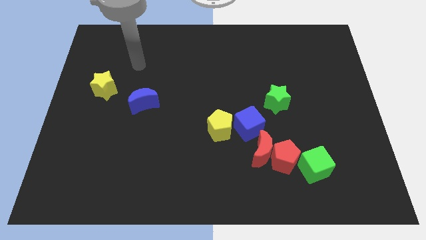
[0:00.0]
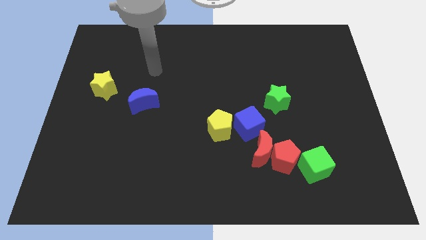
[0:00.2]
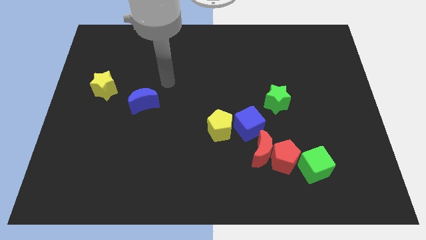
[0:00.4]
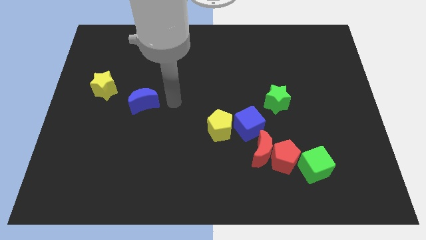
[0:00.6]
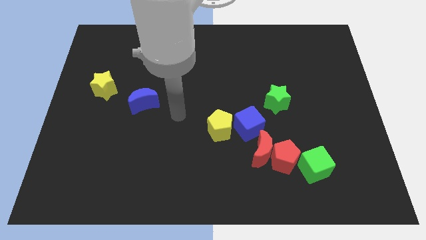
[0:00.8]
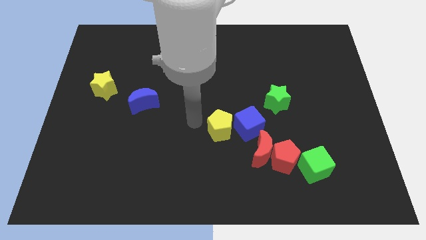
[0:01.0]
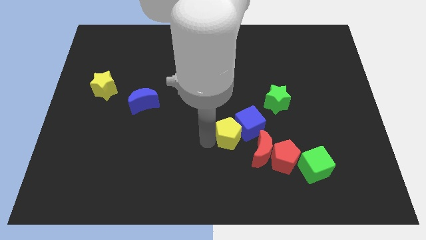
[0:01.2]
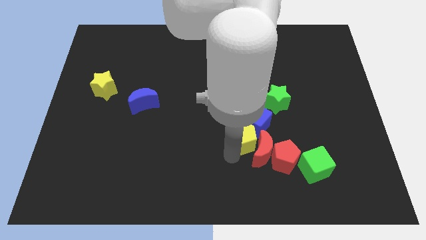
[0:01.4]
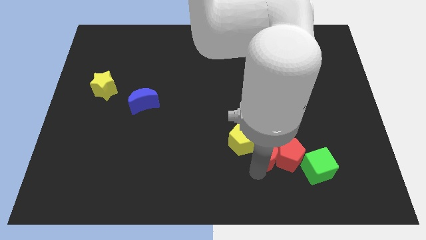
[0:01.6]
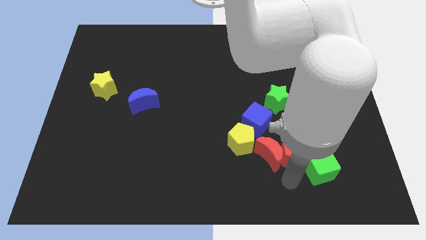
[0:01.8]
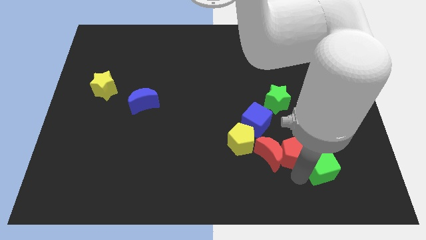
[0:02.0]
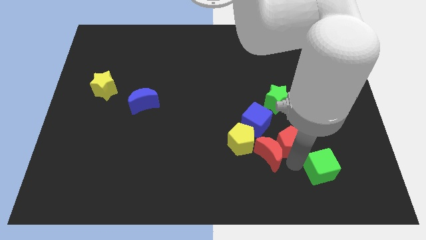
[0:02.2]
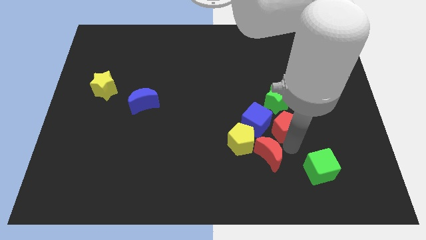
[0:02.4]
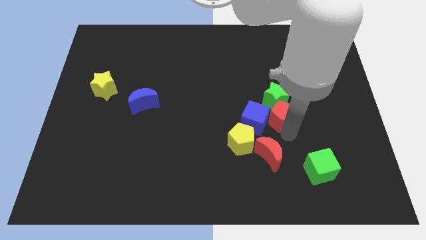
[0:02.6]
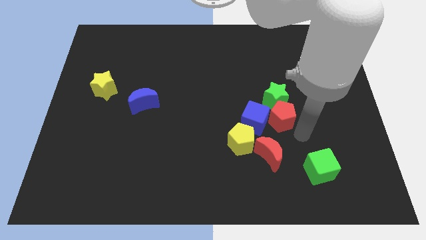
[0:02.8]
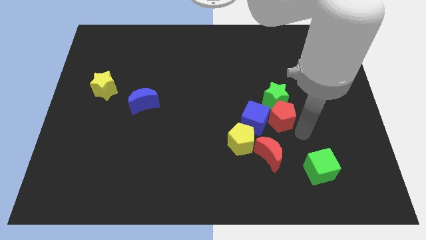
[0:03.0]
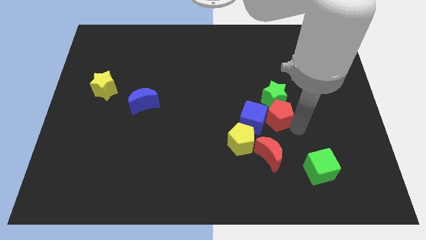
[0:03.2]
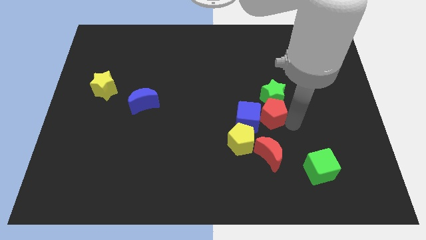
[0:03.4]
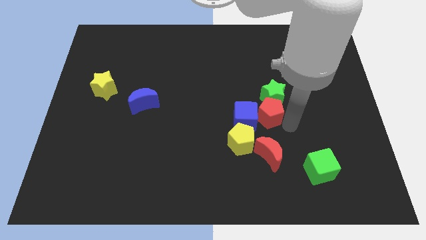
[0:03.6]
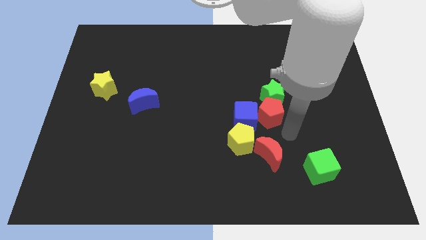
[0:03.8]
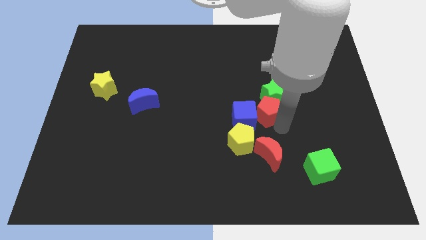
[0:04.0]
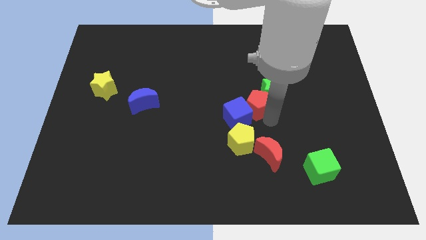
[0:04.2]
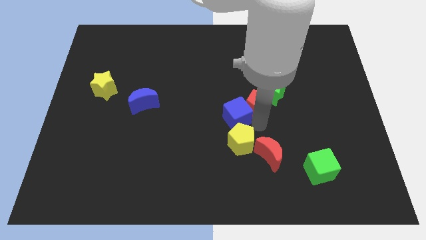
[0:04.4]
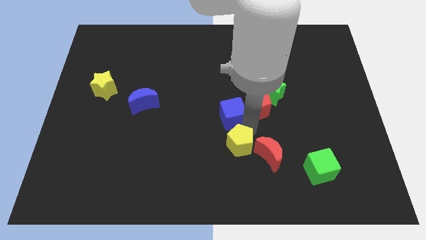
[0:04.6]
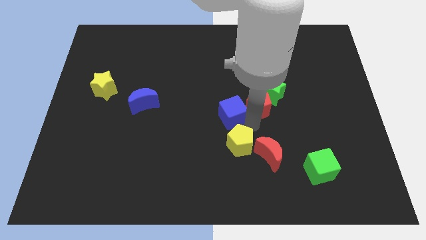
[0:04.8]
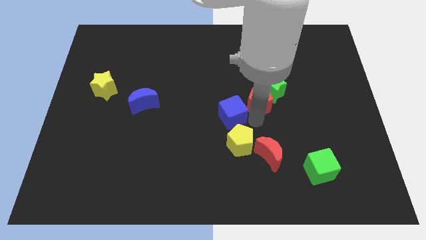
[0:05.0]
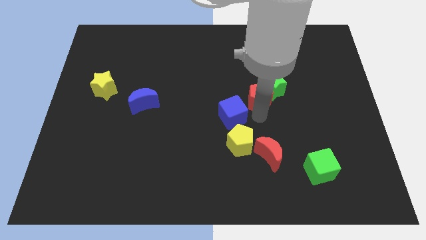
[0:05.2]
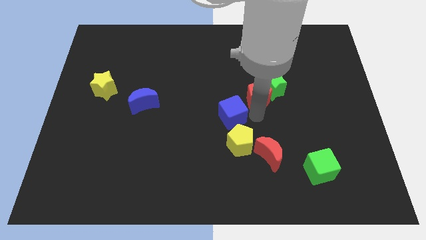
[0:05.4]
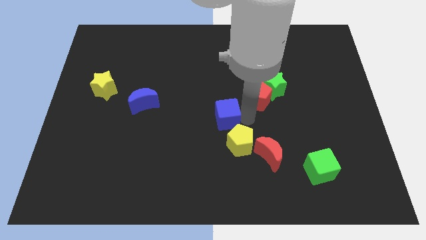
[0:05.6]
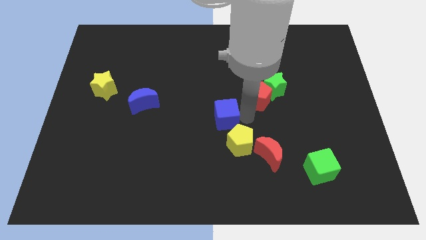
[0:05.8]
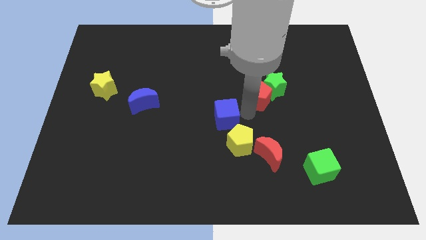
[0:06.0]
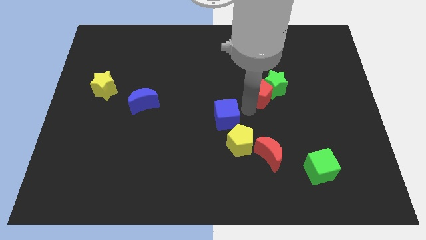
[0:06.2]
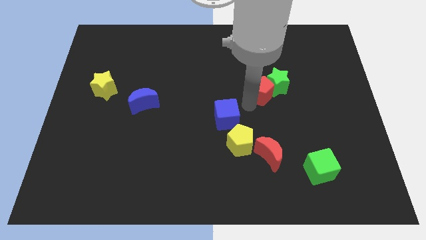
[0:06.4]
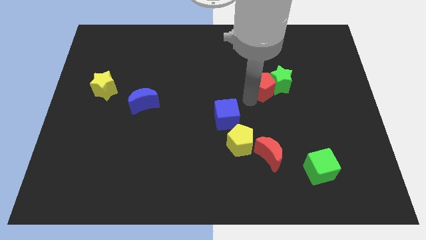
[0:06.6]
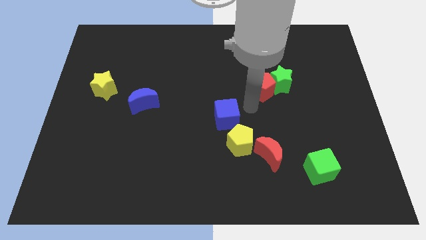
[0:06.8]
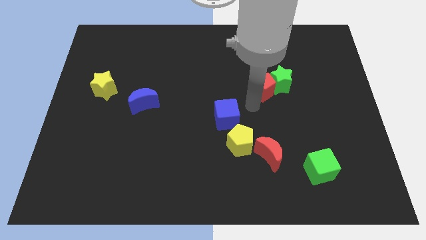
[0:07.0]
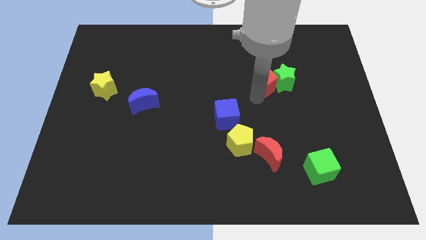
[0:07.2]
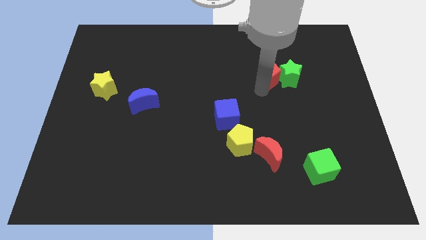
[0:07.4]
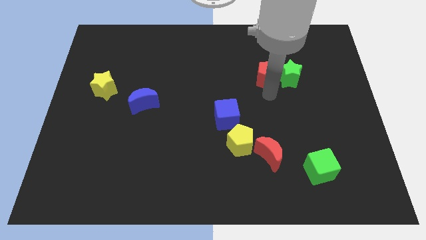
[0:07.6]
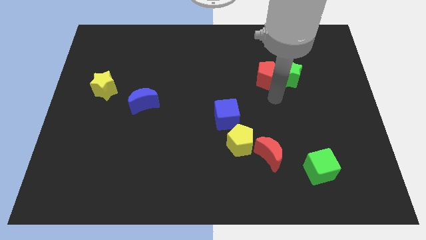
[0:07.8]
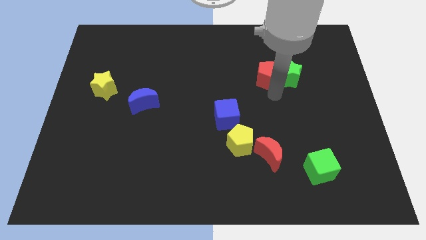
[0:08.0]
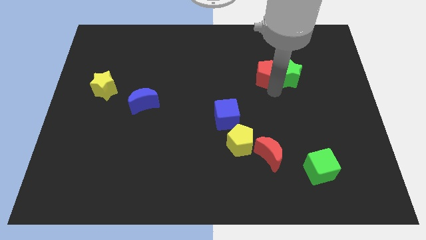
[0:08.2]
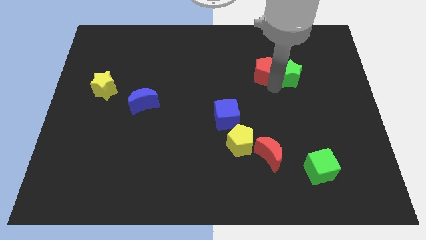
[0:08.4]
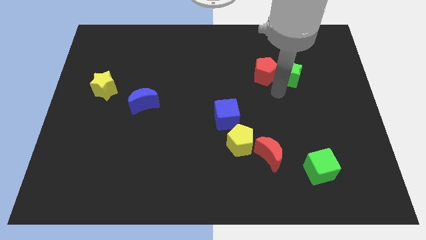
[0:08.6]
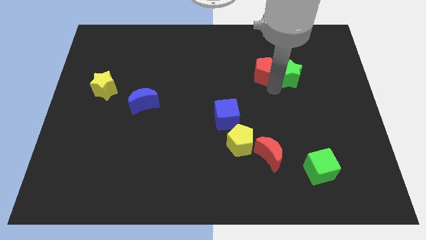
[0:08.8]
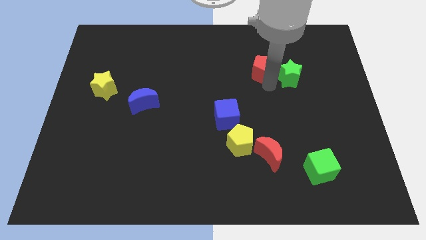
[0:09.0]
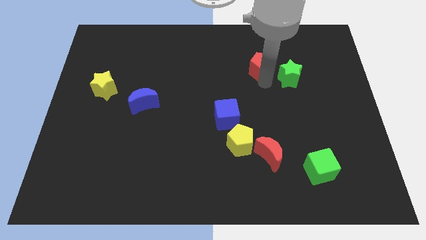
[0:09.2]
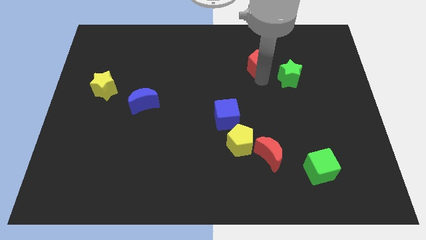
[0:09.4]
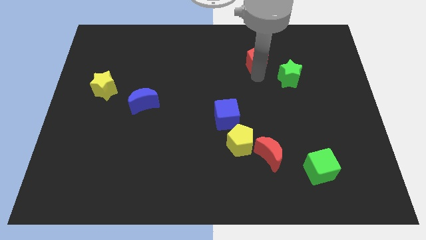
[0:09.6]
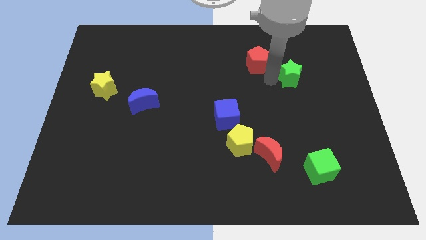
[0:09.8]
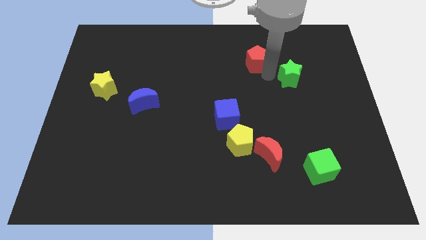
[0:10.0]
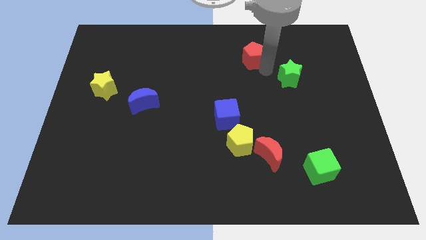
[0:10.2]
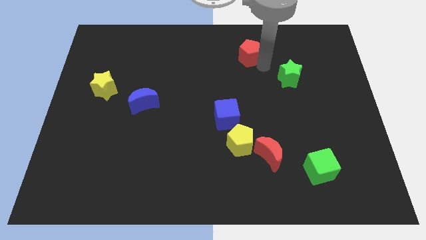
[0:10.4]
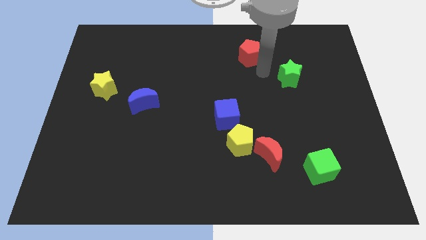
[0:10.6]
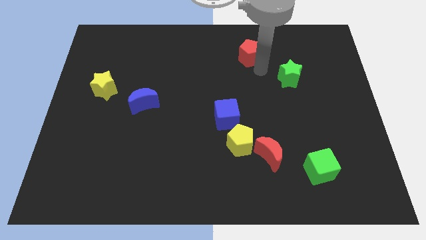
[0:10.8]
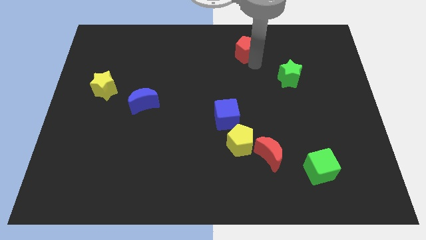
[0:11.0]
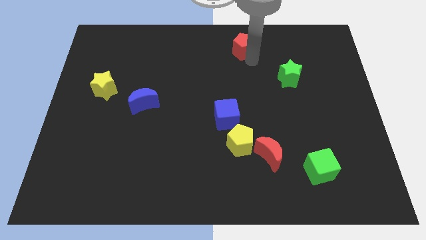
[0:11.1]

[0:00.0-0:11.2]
push the red pentagon to the towards your base

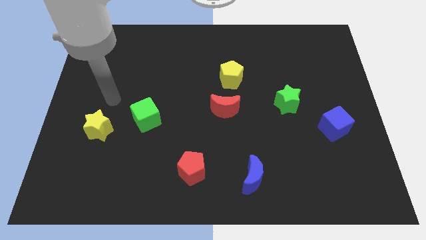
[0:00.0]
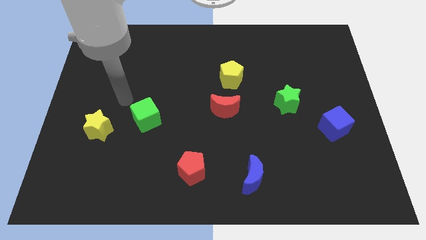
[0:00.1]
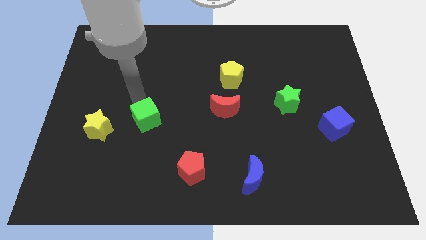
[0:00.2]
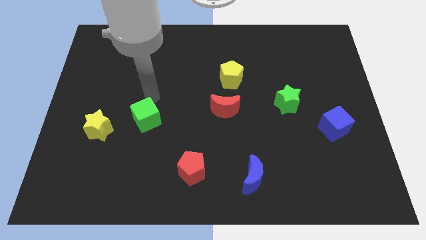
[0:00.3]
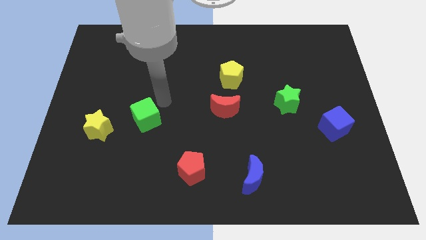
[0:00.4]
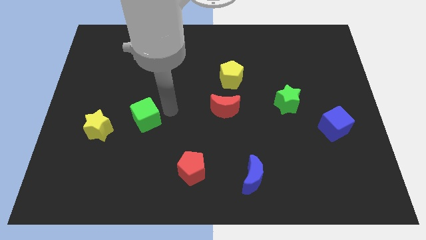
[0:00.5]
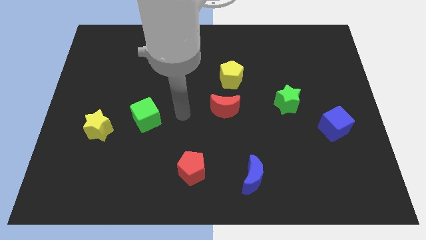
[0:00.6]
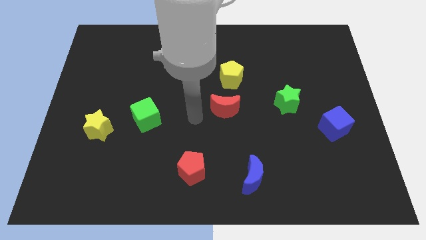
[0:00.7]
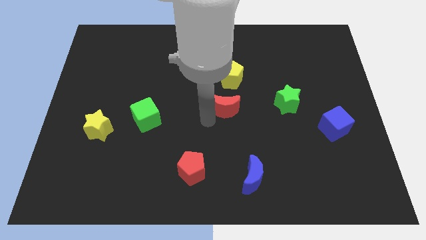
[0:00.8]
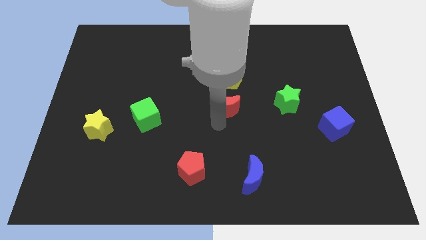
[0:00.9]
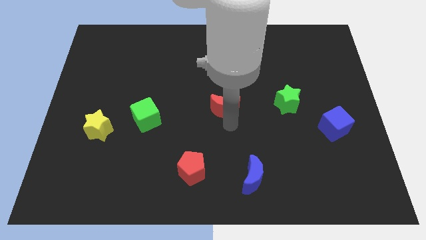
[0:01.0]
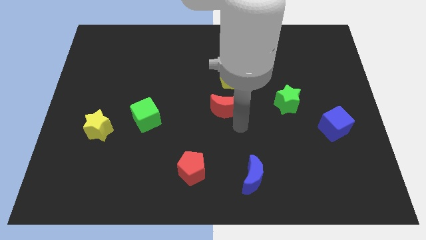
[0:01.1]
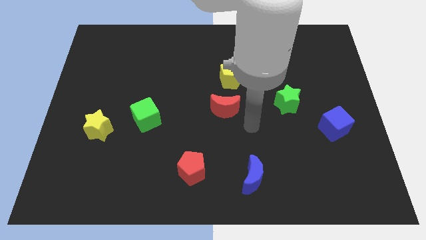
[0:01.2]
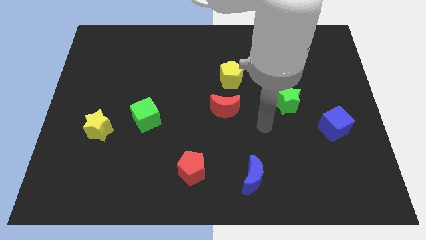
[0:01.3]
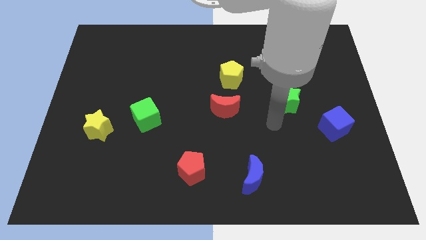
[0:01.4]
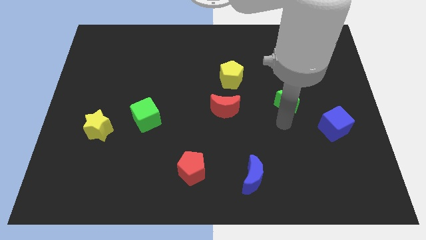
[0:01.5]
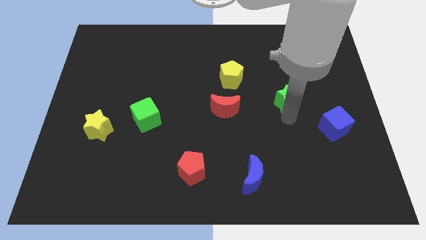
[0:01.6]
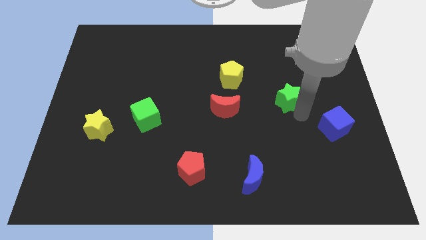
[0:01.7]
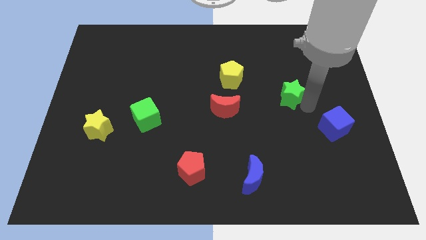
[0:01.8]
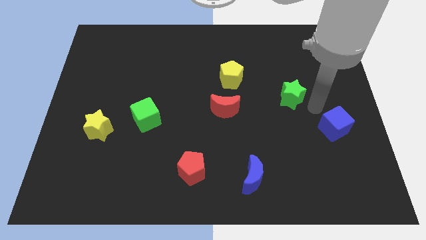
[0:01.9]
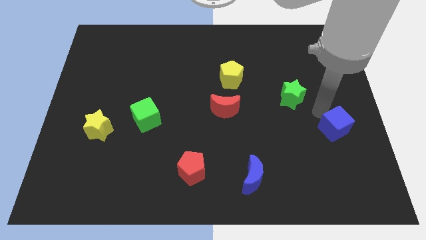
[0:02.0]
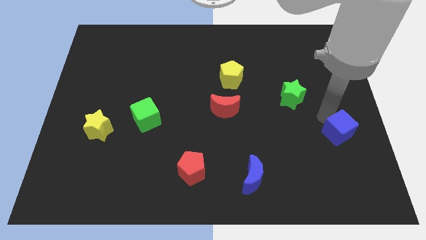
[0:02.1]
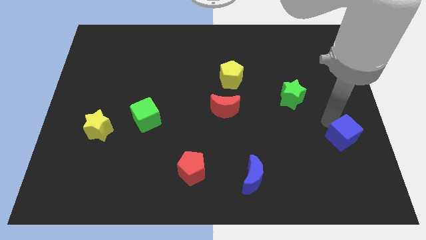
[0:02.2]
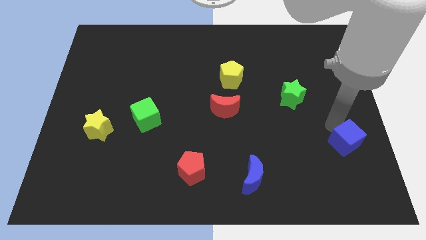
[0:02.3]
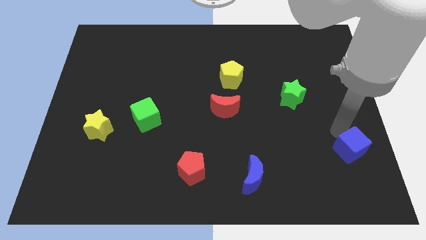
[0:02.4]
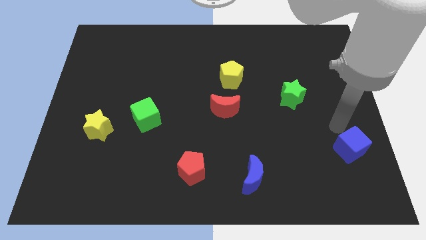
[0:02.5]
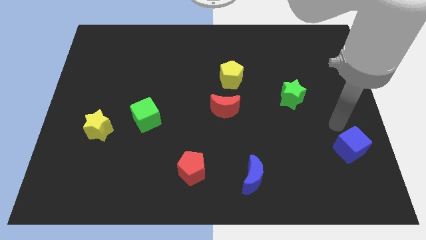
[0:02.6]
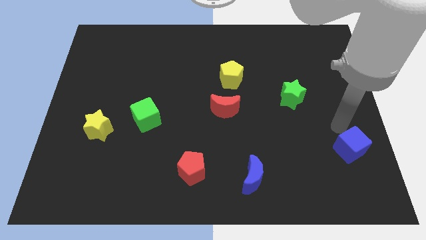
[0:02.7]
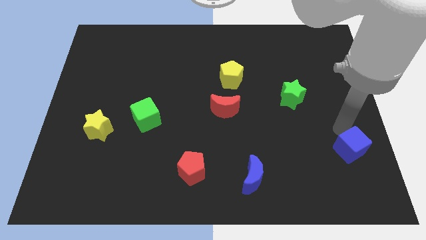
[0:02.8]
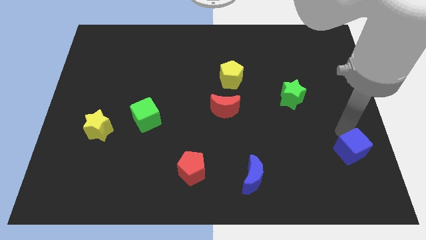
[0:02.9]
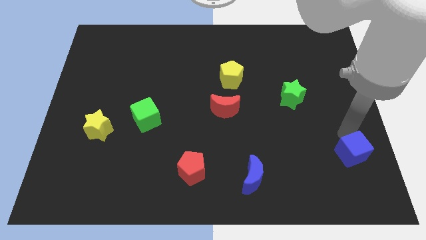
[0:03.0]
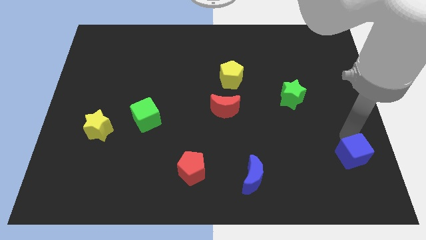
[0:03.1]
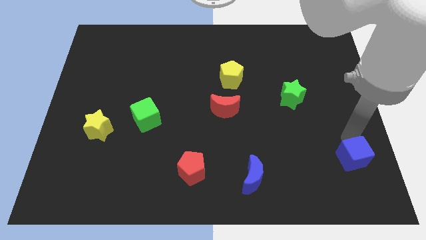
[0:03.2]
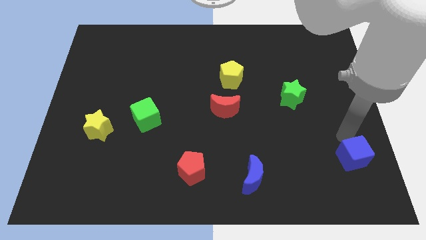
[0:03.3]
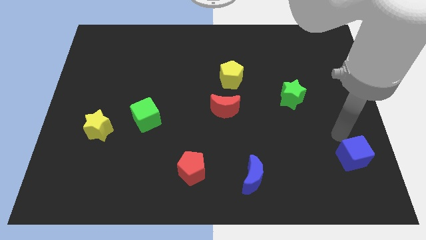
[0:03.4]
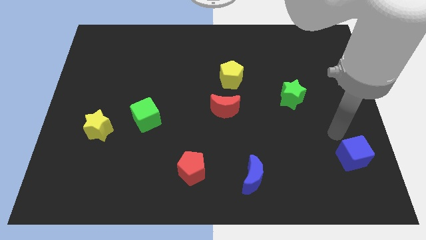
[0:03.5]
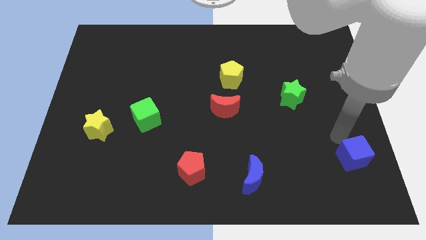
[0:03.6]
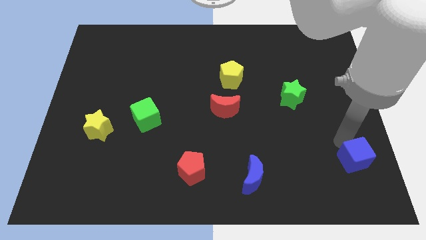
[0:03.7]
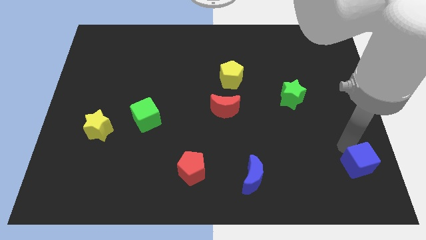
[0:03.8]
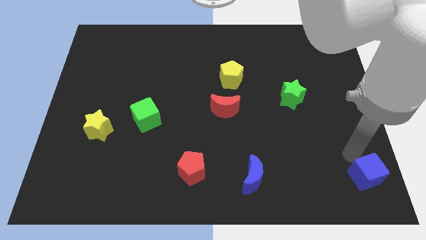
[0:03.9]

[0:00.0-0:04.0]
push the blue cube to the bottom right of the board
